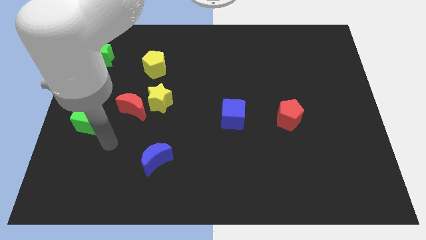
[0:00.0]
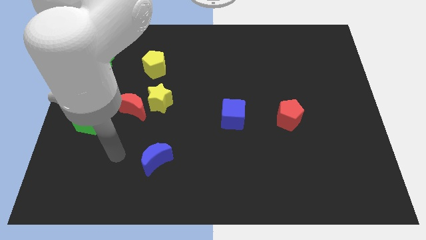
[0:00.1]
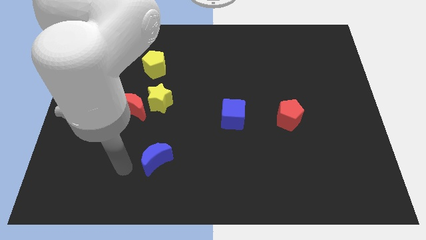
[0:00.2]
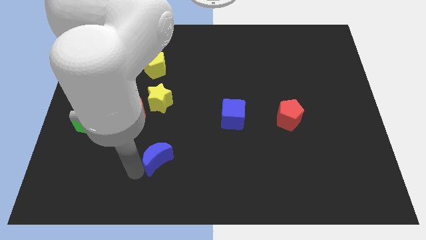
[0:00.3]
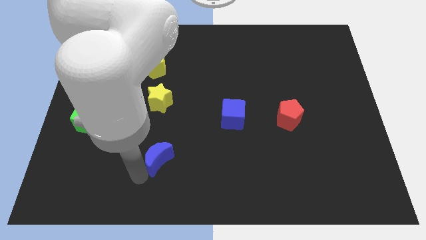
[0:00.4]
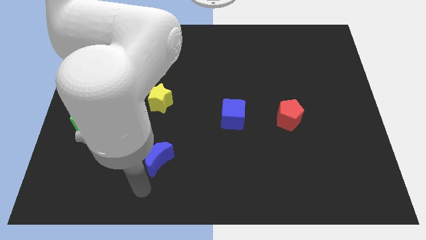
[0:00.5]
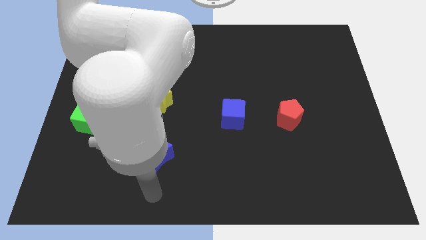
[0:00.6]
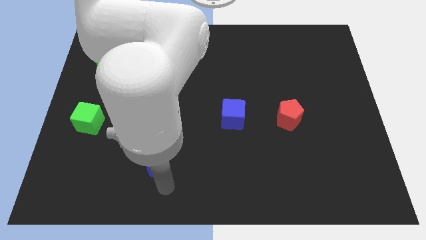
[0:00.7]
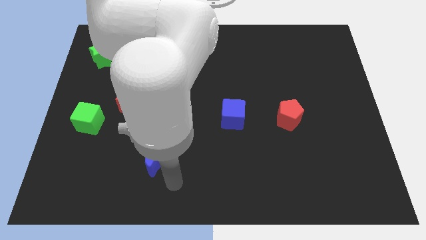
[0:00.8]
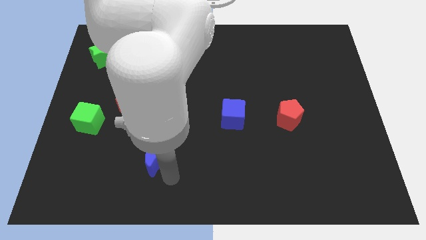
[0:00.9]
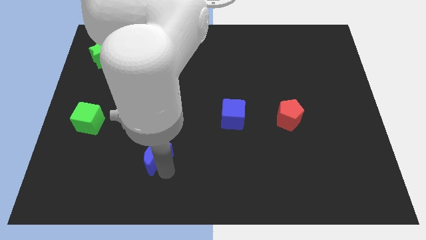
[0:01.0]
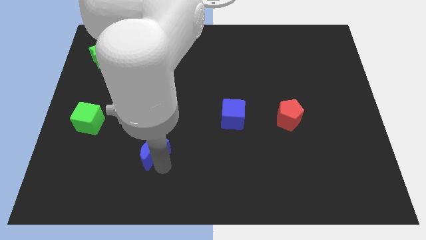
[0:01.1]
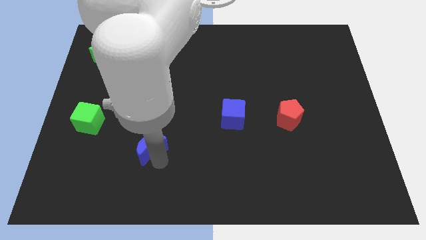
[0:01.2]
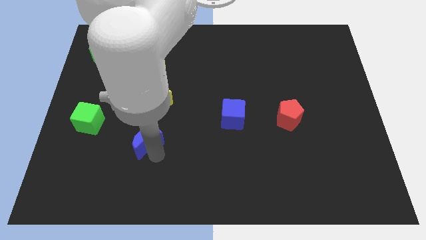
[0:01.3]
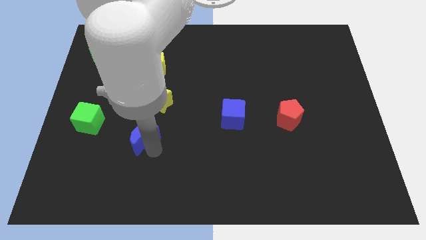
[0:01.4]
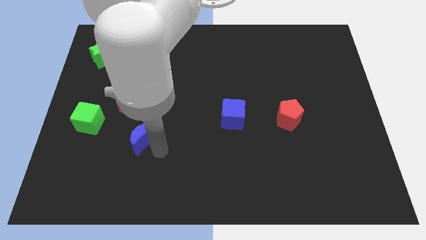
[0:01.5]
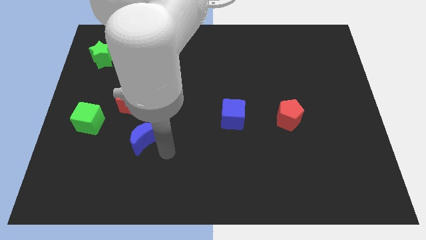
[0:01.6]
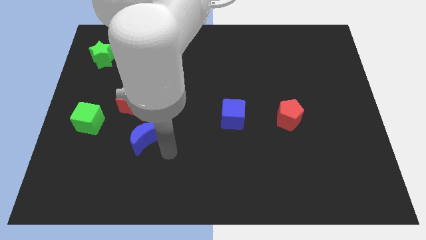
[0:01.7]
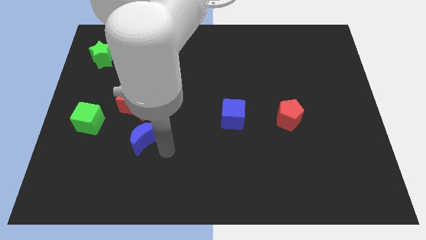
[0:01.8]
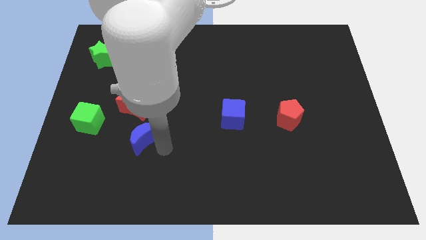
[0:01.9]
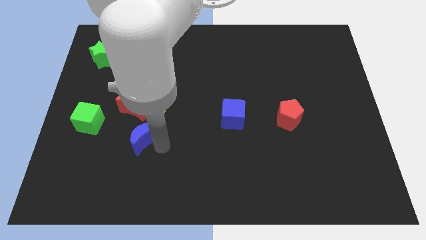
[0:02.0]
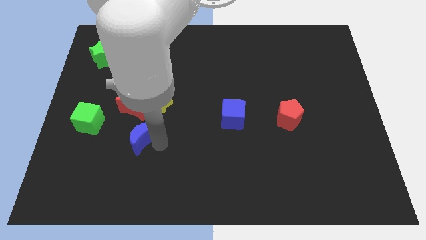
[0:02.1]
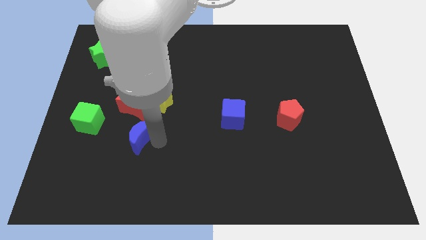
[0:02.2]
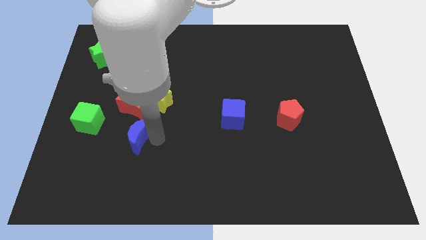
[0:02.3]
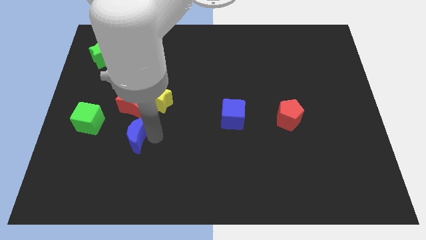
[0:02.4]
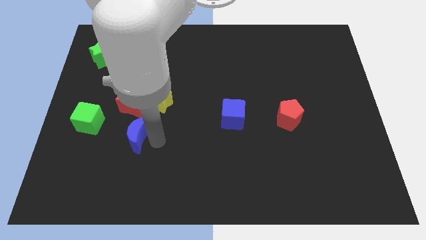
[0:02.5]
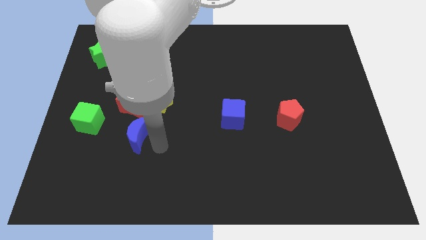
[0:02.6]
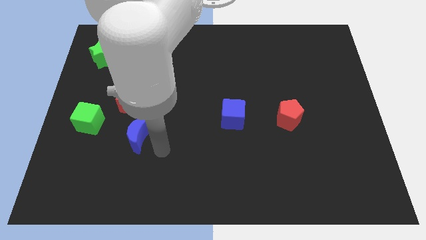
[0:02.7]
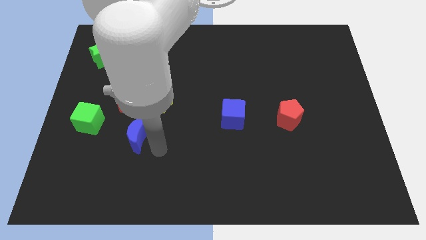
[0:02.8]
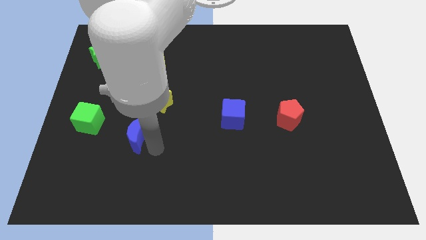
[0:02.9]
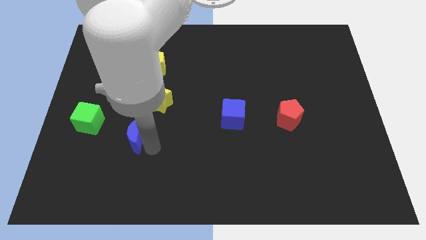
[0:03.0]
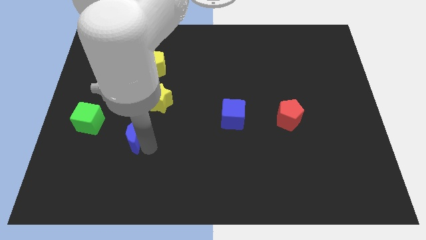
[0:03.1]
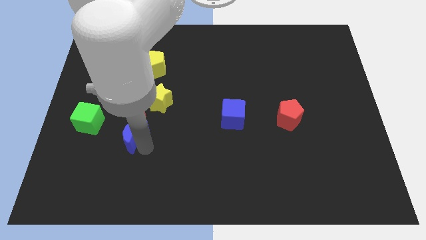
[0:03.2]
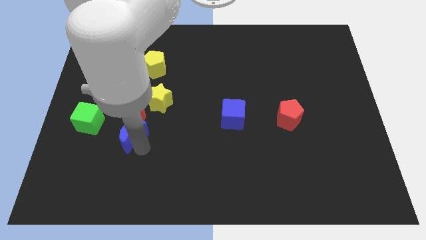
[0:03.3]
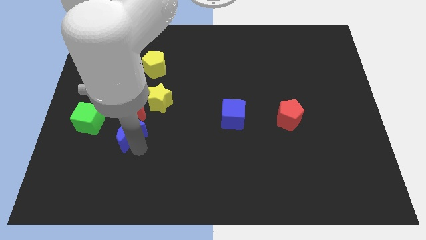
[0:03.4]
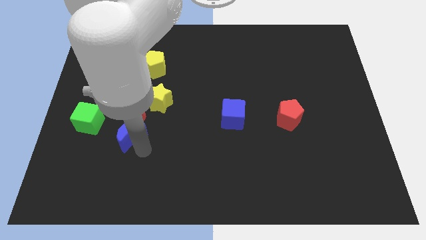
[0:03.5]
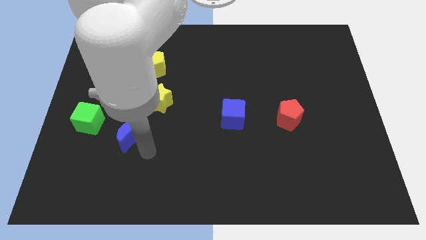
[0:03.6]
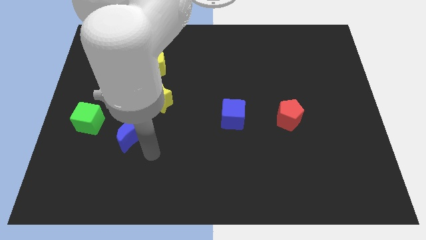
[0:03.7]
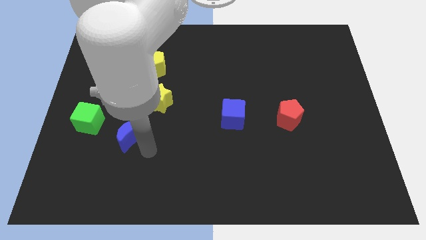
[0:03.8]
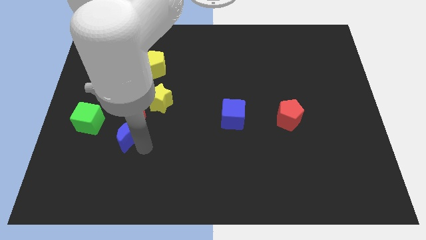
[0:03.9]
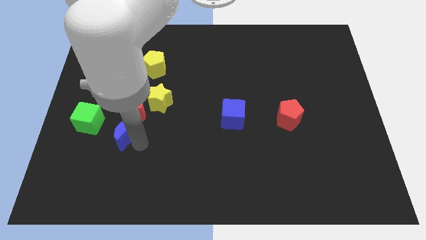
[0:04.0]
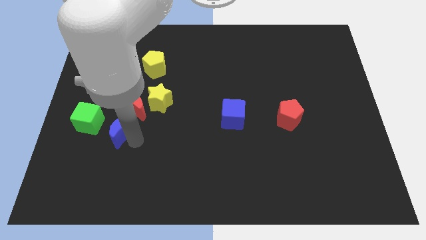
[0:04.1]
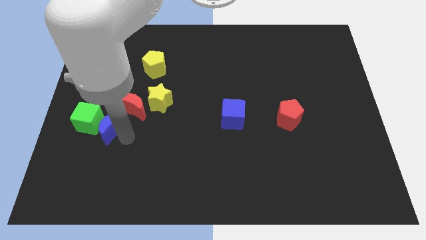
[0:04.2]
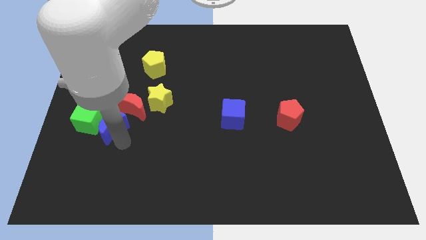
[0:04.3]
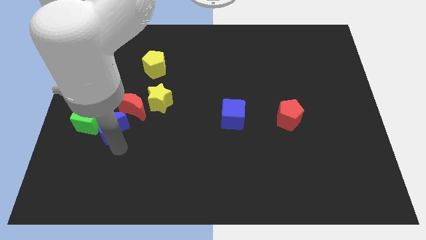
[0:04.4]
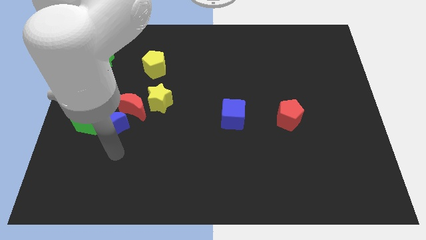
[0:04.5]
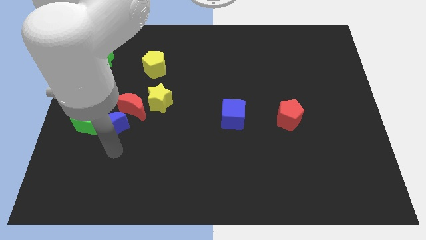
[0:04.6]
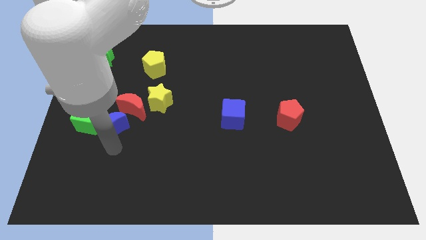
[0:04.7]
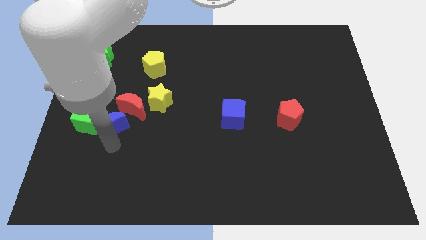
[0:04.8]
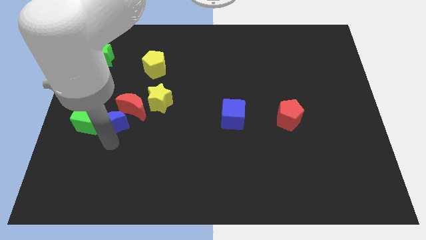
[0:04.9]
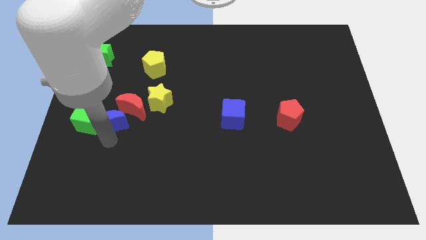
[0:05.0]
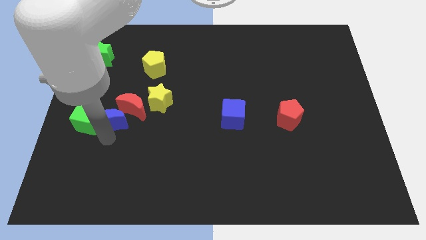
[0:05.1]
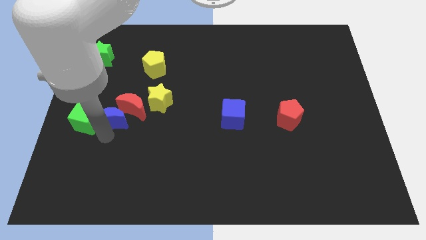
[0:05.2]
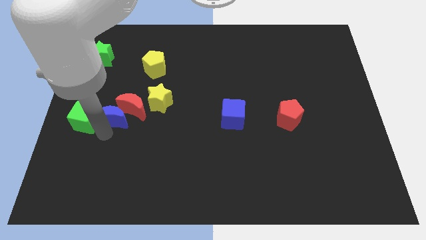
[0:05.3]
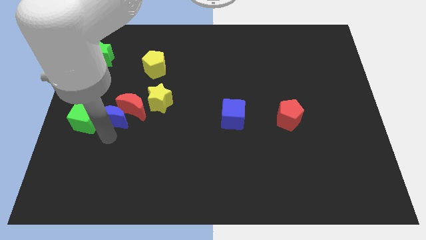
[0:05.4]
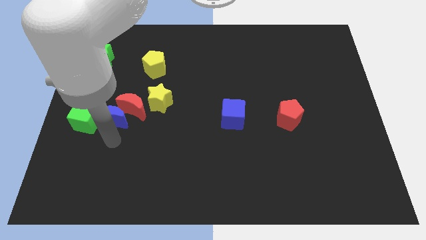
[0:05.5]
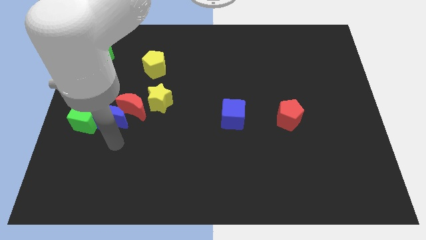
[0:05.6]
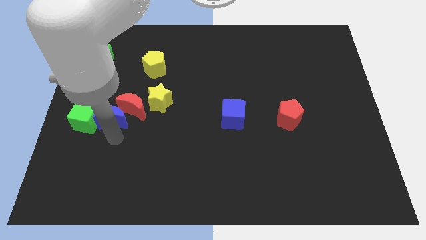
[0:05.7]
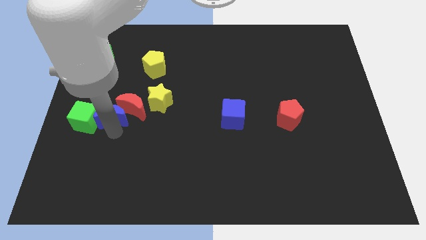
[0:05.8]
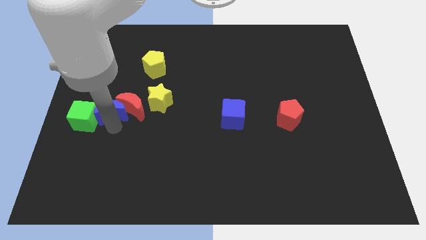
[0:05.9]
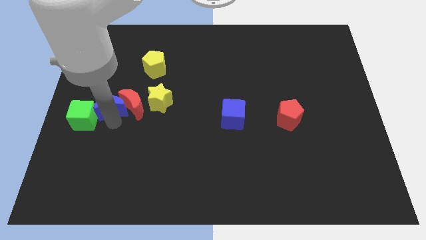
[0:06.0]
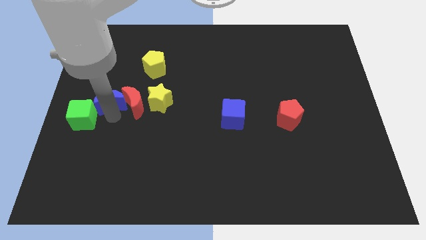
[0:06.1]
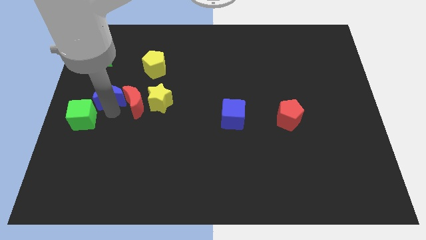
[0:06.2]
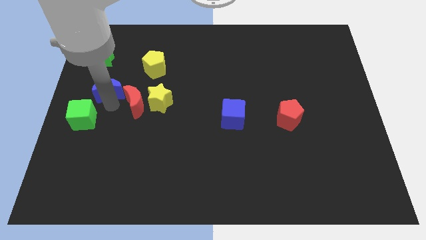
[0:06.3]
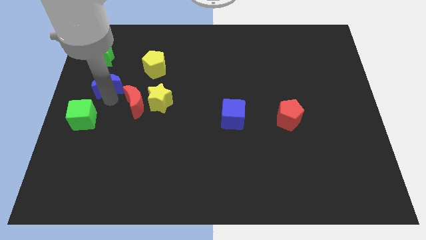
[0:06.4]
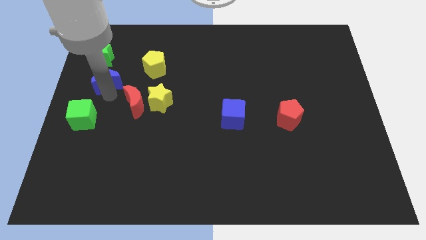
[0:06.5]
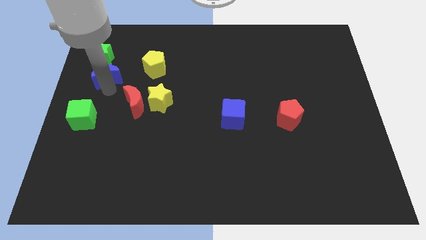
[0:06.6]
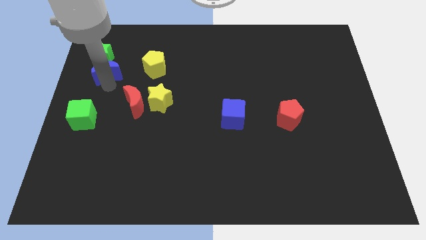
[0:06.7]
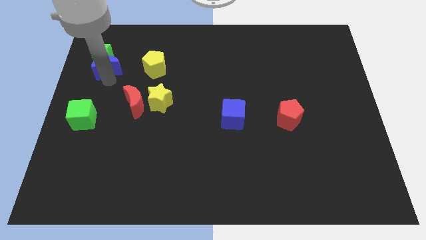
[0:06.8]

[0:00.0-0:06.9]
put the blue moon to the green star
